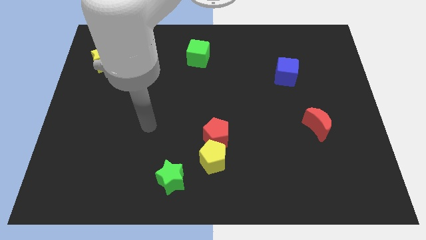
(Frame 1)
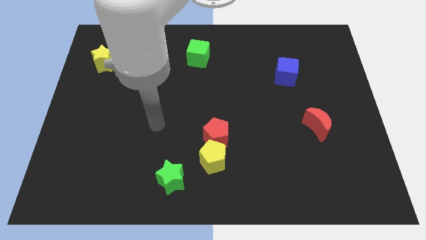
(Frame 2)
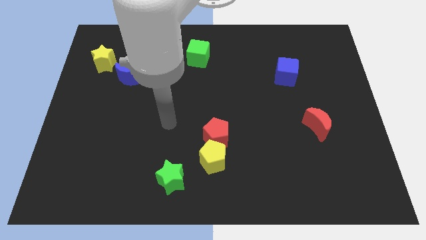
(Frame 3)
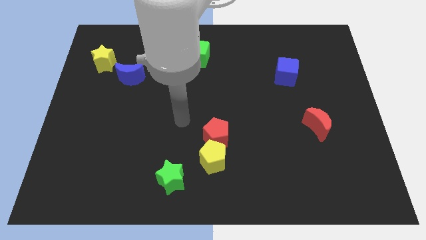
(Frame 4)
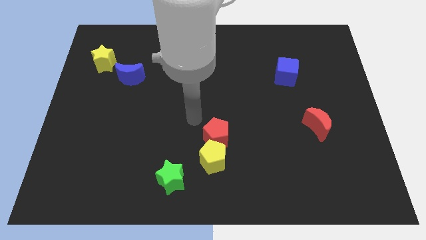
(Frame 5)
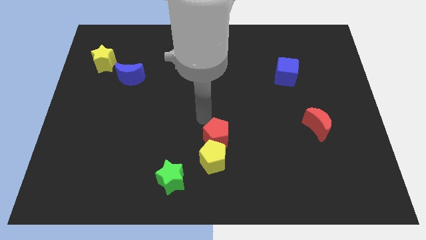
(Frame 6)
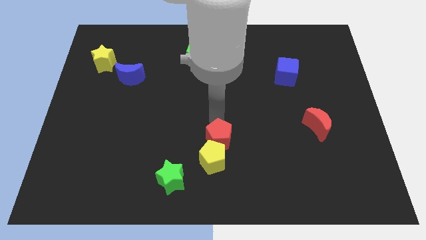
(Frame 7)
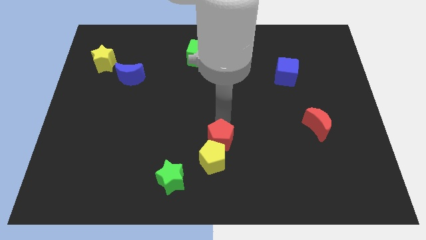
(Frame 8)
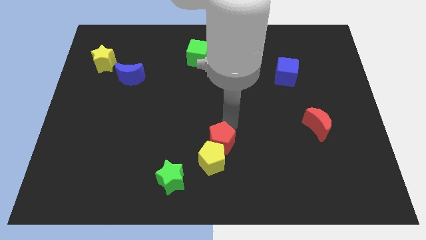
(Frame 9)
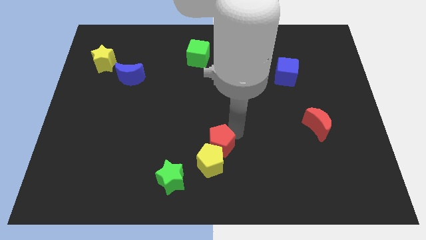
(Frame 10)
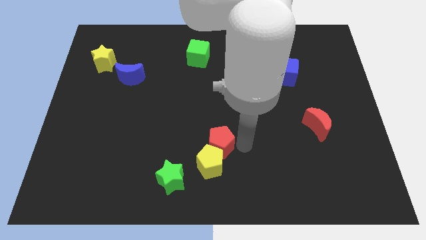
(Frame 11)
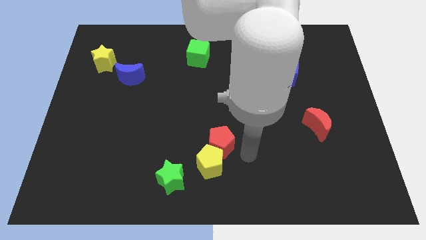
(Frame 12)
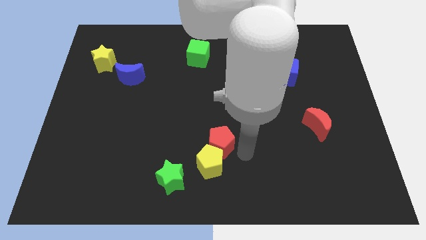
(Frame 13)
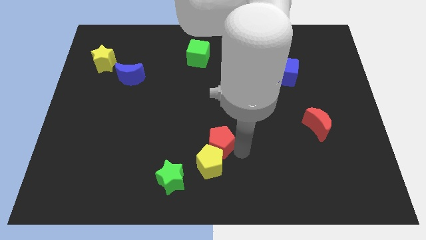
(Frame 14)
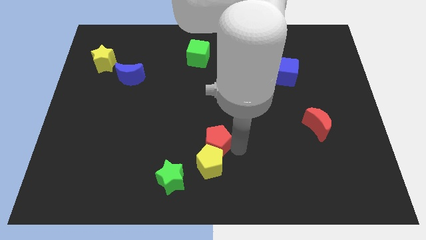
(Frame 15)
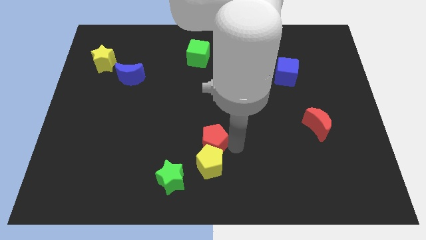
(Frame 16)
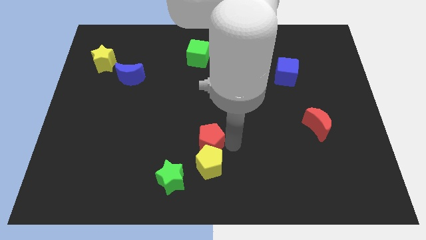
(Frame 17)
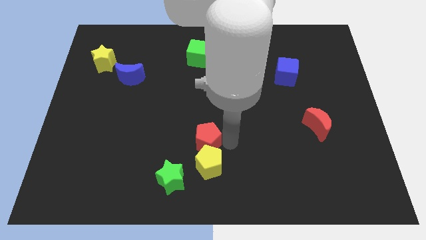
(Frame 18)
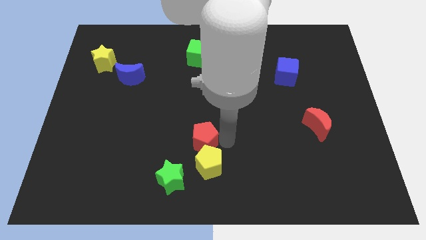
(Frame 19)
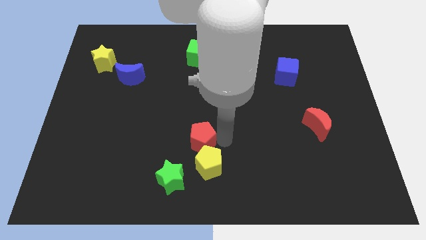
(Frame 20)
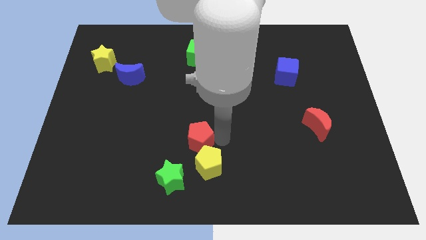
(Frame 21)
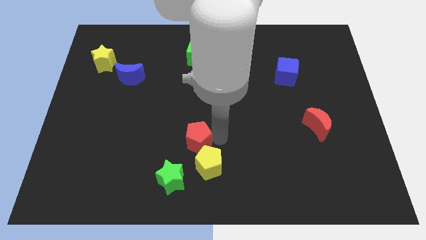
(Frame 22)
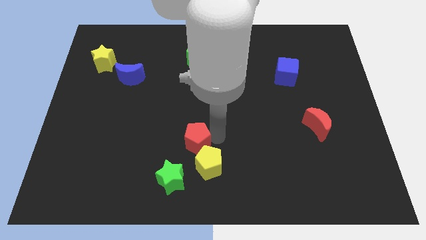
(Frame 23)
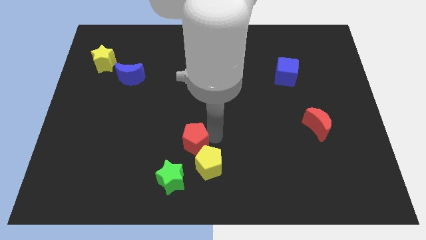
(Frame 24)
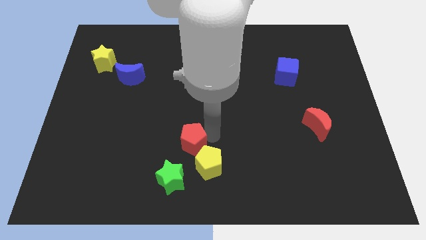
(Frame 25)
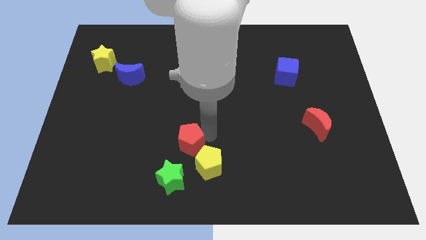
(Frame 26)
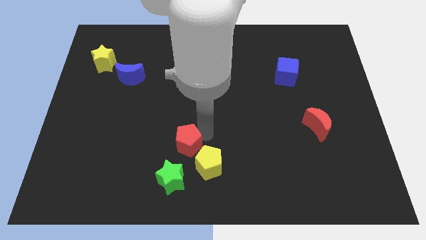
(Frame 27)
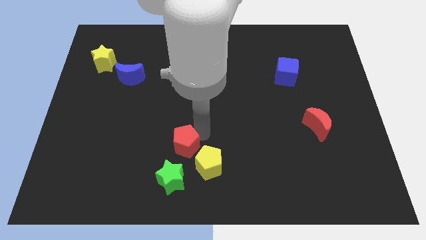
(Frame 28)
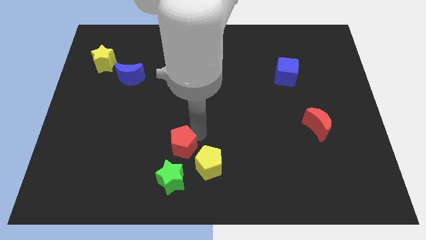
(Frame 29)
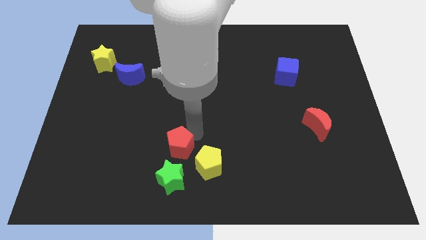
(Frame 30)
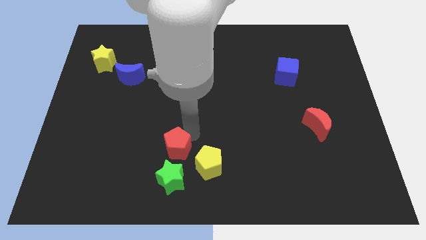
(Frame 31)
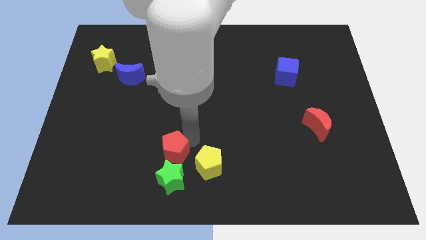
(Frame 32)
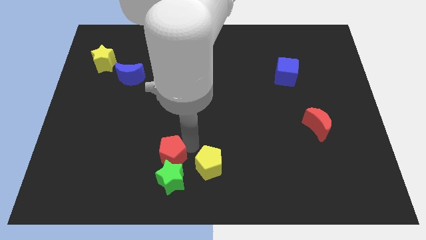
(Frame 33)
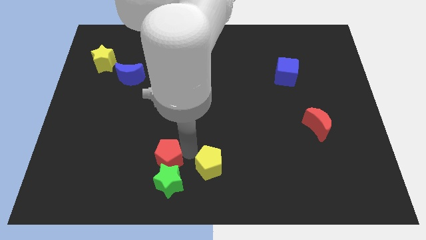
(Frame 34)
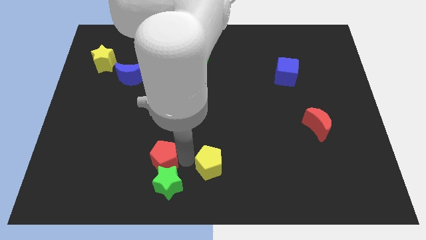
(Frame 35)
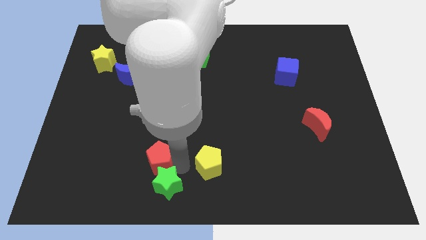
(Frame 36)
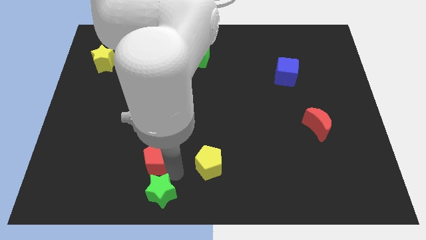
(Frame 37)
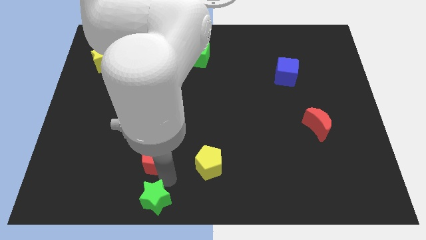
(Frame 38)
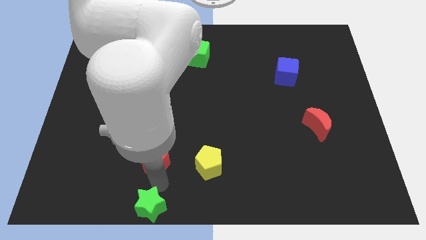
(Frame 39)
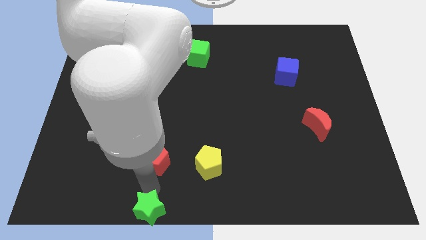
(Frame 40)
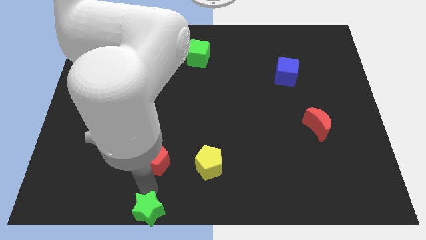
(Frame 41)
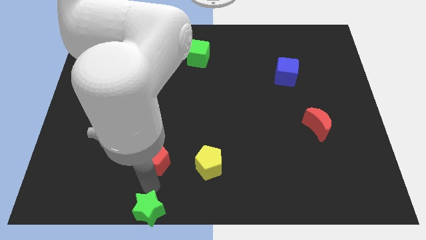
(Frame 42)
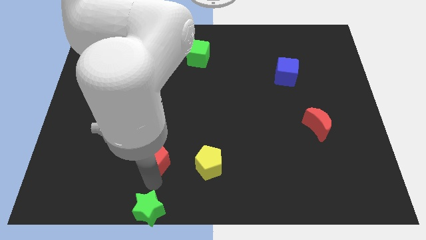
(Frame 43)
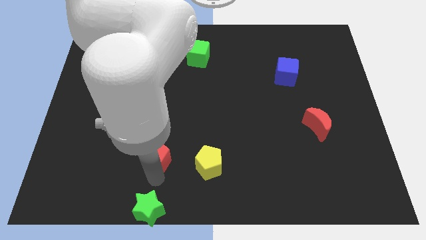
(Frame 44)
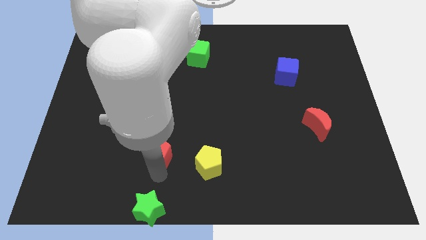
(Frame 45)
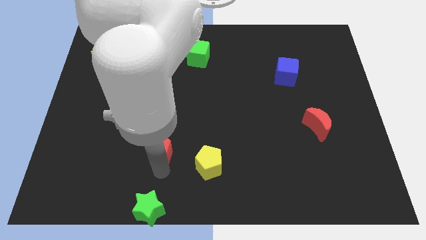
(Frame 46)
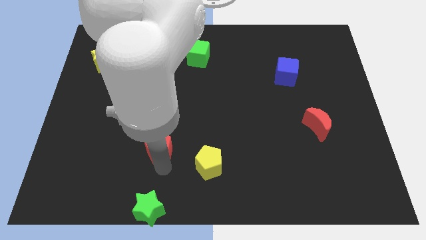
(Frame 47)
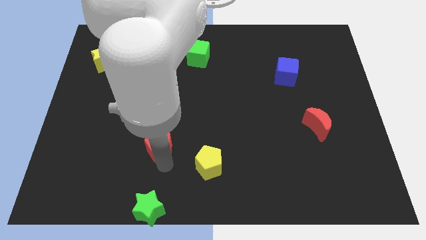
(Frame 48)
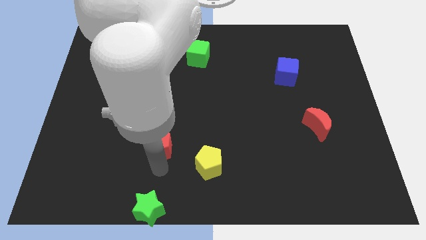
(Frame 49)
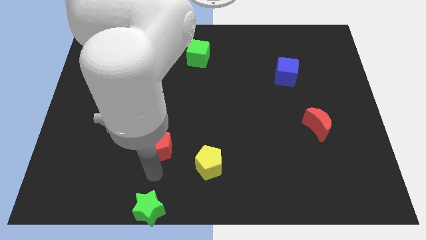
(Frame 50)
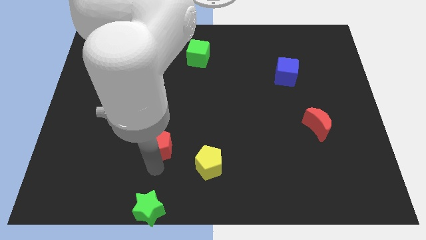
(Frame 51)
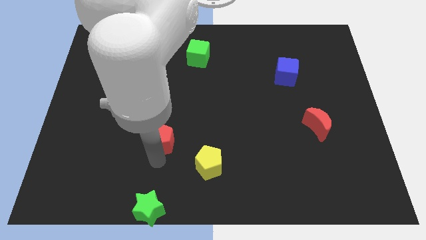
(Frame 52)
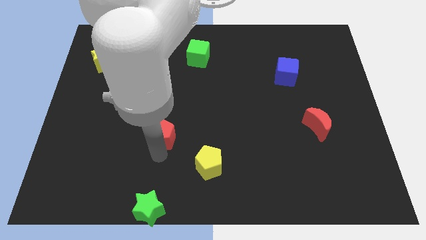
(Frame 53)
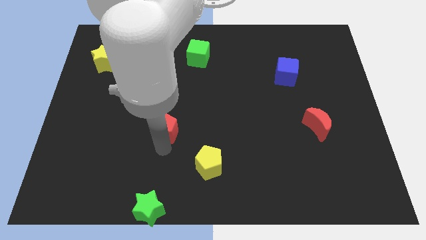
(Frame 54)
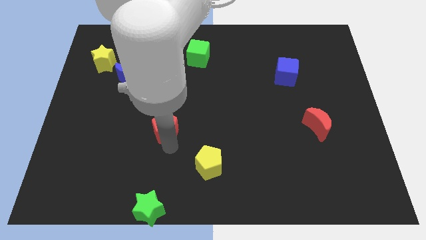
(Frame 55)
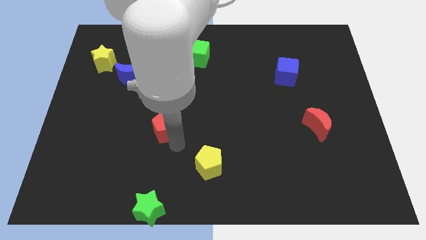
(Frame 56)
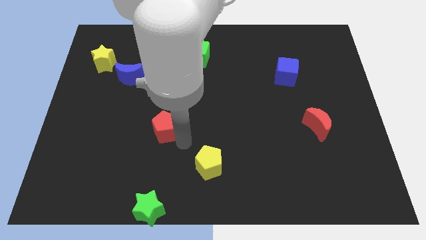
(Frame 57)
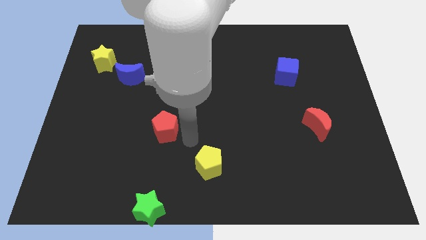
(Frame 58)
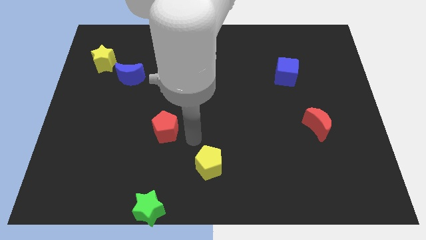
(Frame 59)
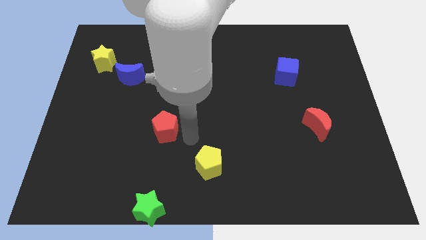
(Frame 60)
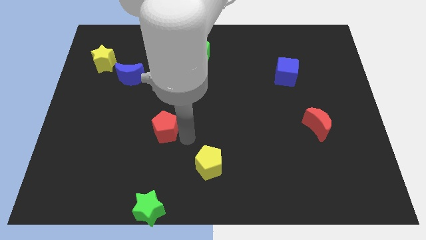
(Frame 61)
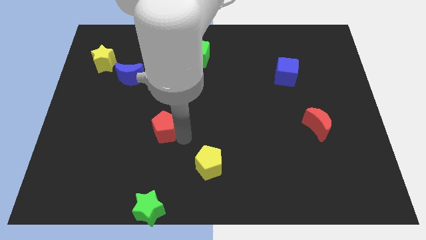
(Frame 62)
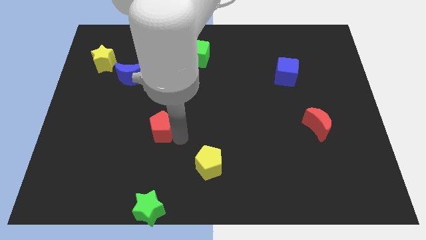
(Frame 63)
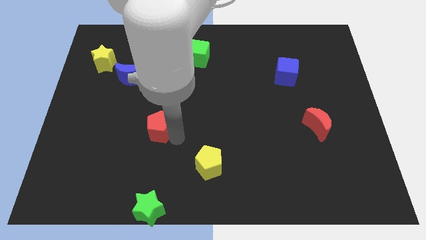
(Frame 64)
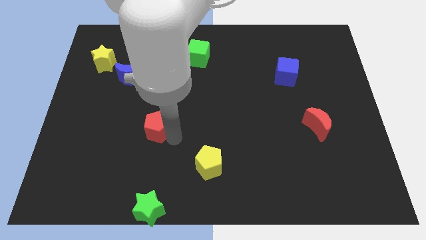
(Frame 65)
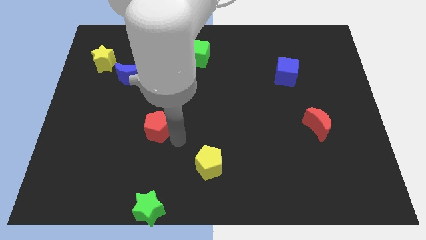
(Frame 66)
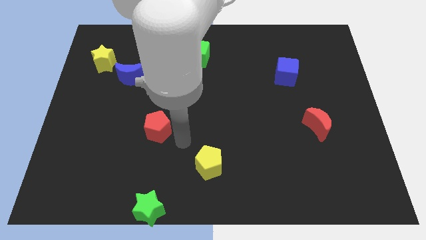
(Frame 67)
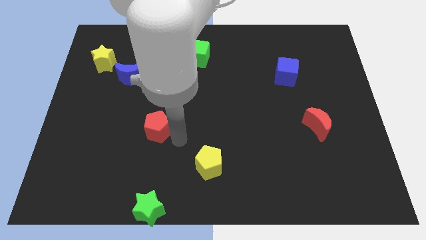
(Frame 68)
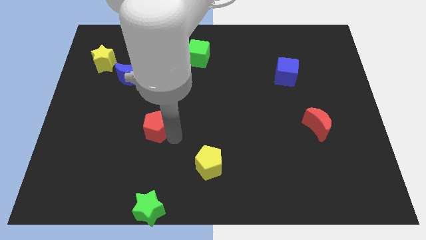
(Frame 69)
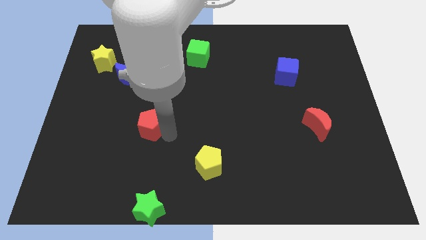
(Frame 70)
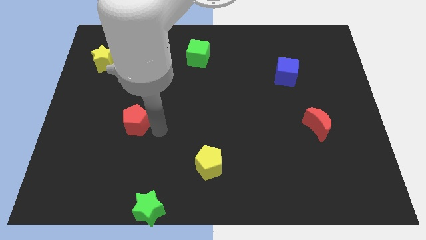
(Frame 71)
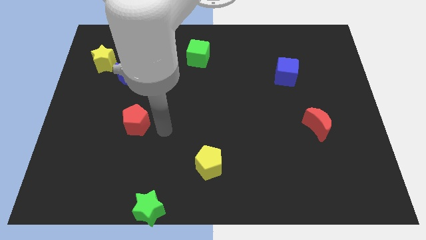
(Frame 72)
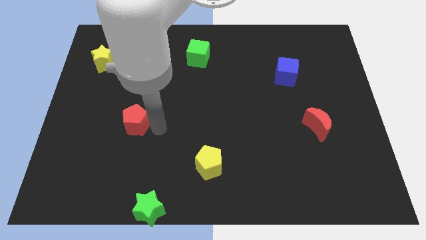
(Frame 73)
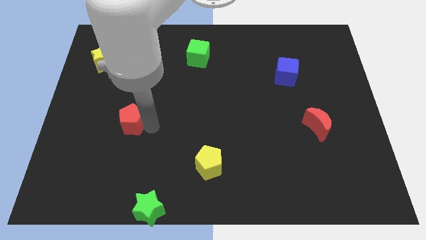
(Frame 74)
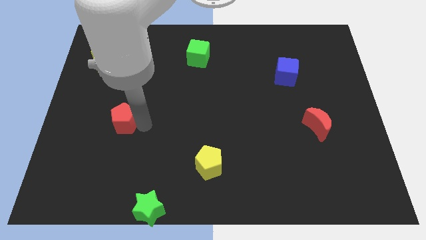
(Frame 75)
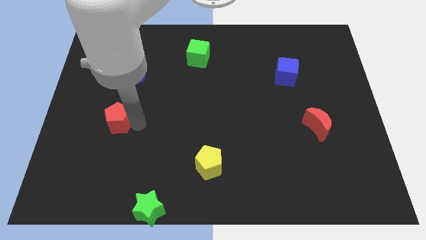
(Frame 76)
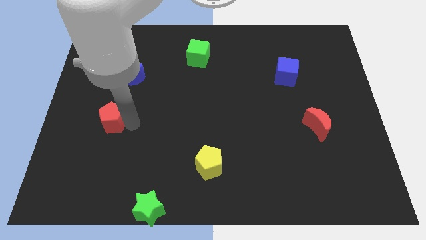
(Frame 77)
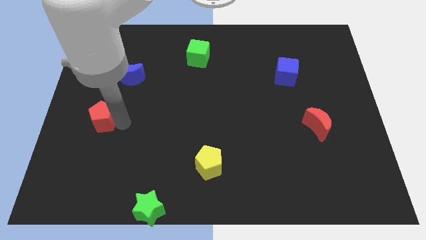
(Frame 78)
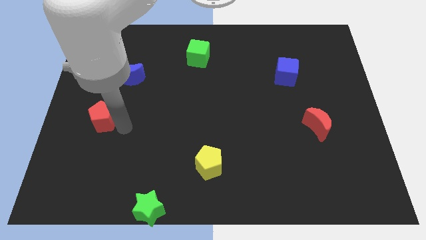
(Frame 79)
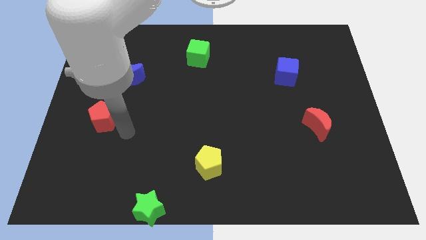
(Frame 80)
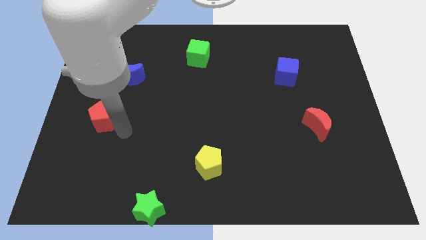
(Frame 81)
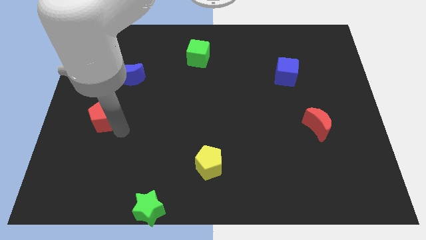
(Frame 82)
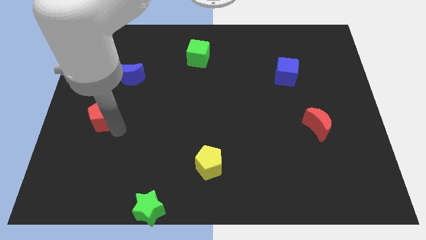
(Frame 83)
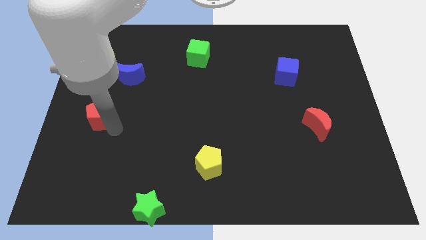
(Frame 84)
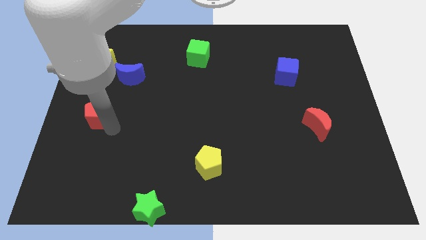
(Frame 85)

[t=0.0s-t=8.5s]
move the red pentagon to the center left
